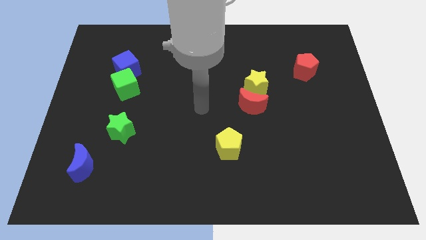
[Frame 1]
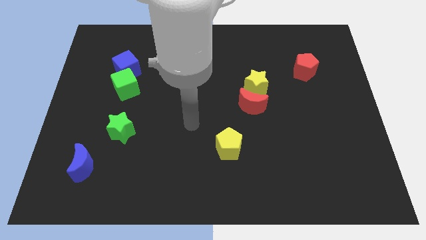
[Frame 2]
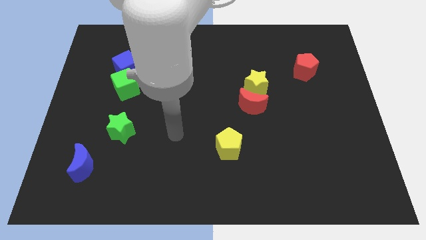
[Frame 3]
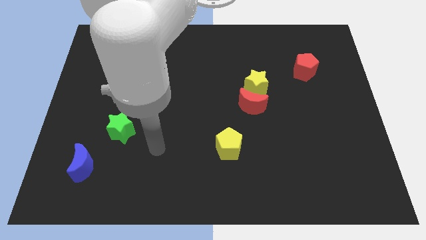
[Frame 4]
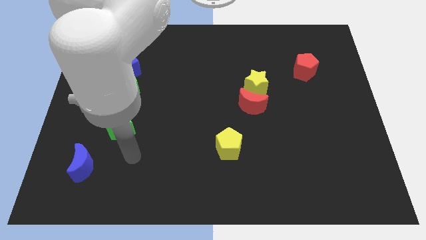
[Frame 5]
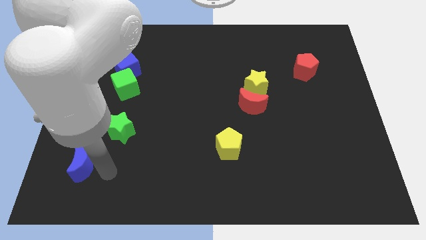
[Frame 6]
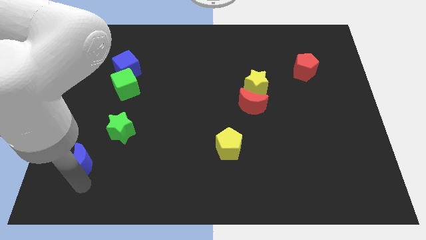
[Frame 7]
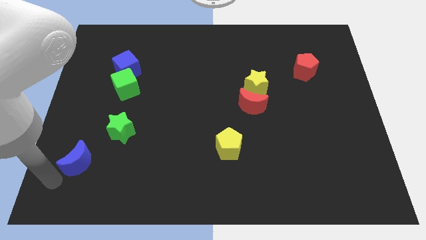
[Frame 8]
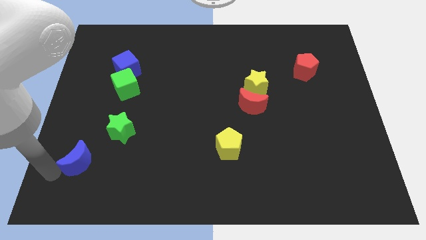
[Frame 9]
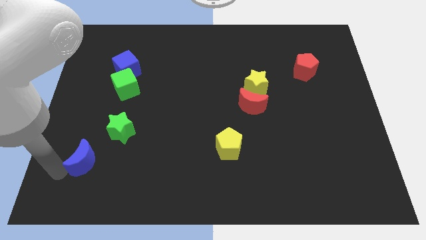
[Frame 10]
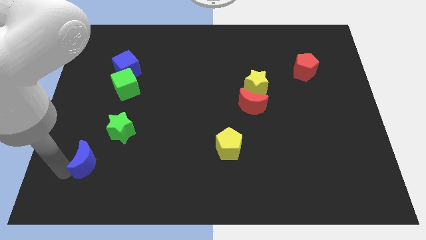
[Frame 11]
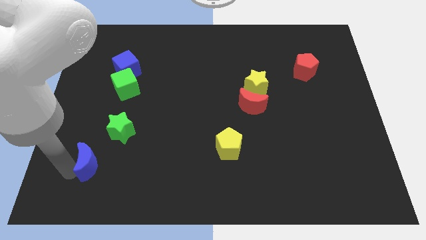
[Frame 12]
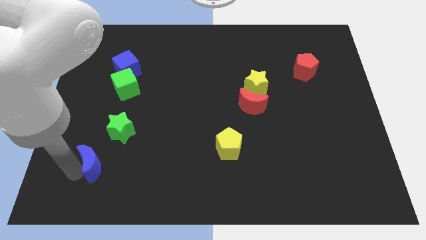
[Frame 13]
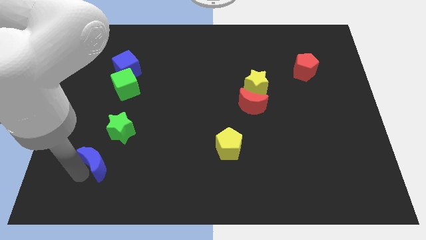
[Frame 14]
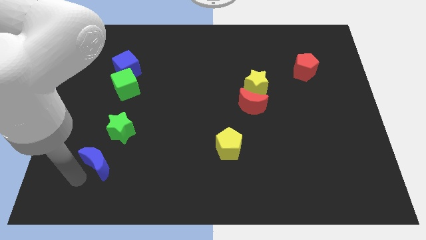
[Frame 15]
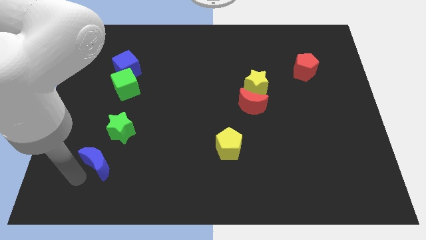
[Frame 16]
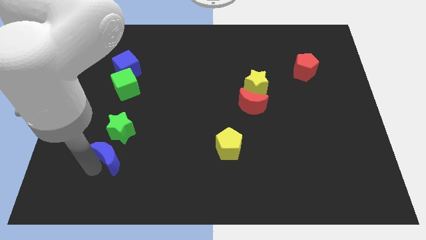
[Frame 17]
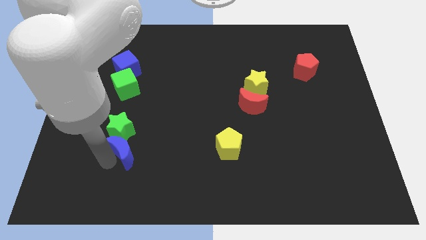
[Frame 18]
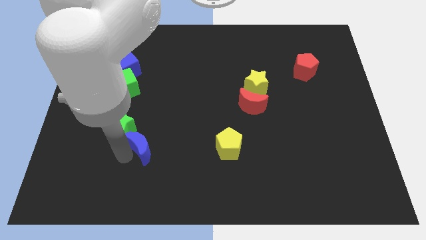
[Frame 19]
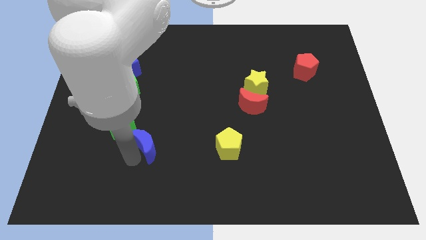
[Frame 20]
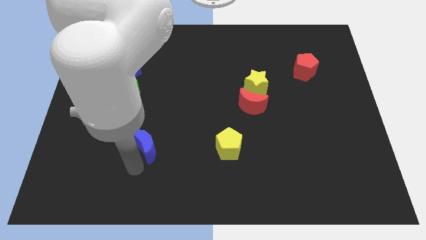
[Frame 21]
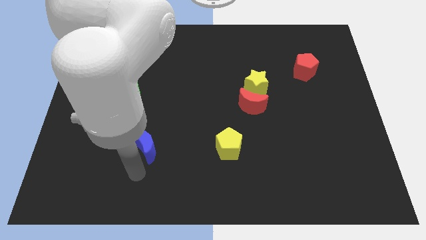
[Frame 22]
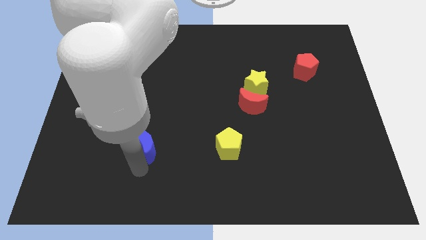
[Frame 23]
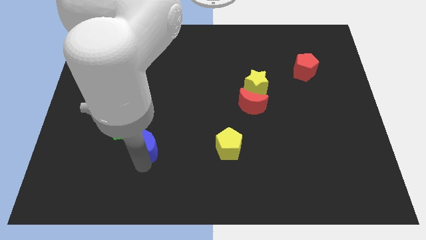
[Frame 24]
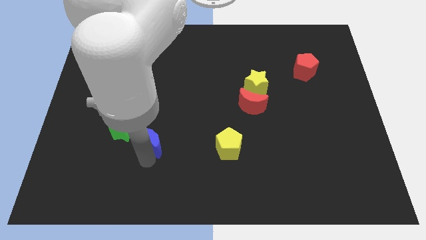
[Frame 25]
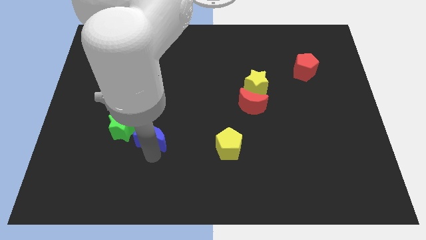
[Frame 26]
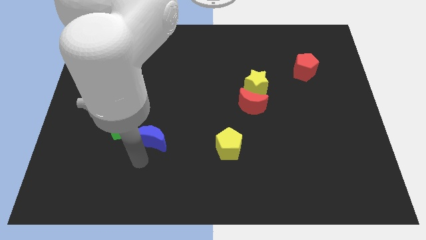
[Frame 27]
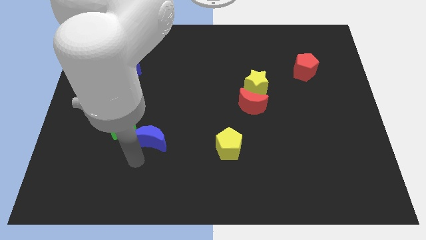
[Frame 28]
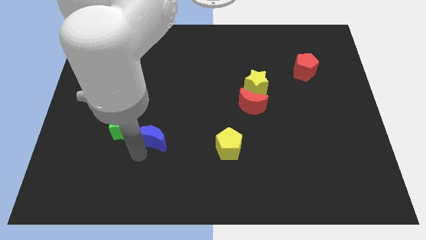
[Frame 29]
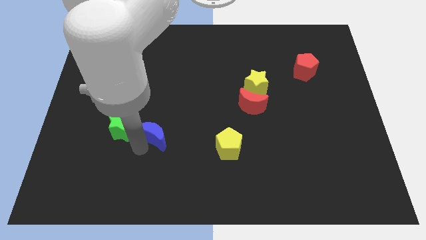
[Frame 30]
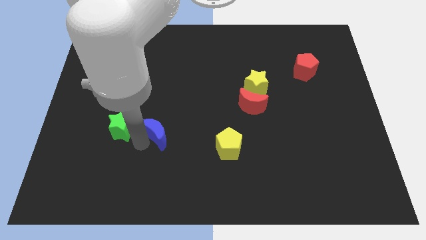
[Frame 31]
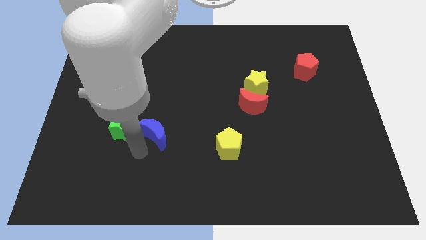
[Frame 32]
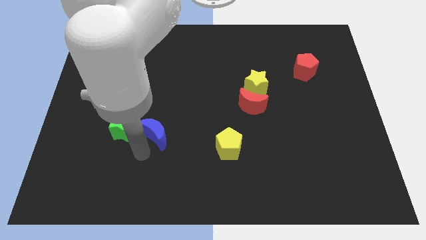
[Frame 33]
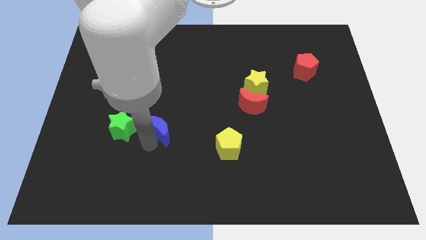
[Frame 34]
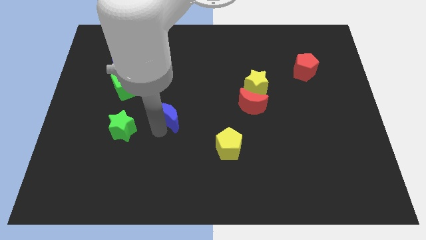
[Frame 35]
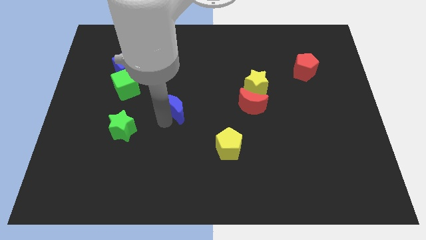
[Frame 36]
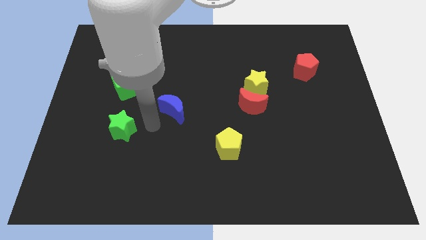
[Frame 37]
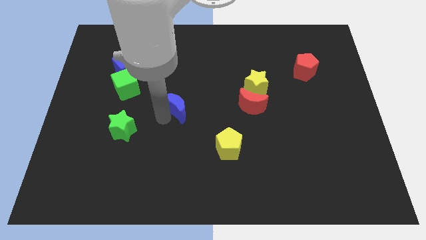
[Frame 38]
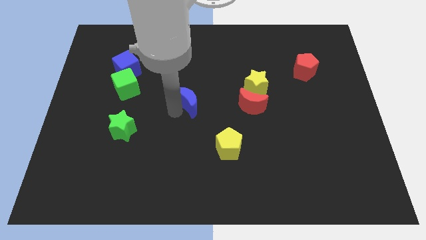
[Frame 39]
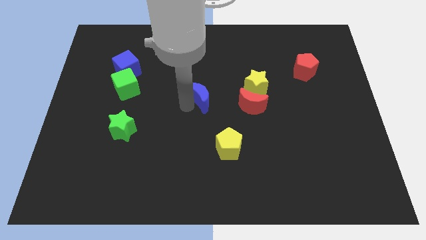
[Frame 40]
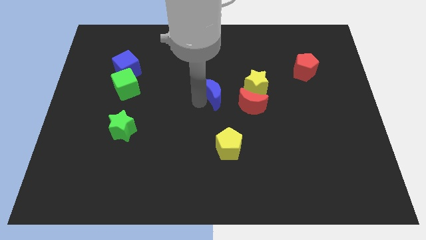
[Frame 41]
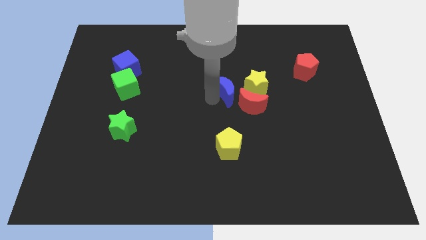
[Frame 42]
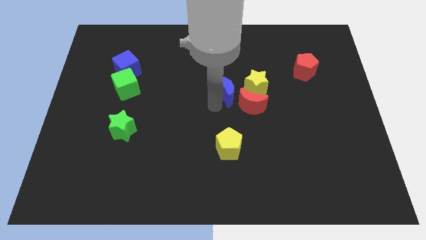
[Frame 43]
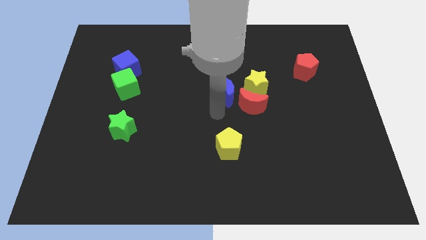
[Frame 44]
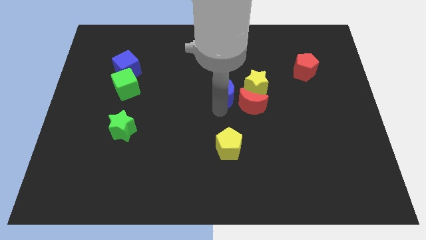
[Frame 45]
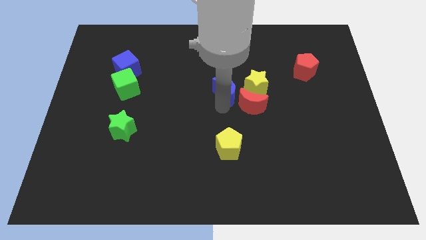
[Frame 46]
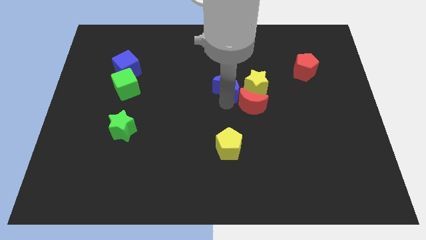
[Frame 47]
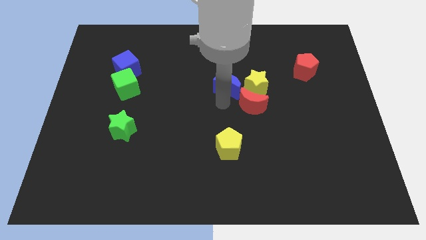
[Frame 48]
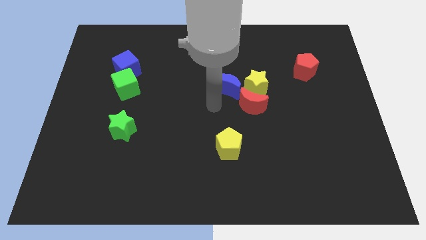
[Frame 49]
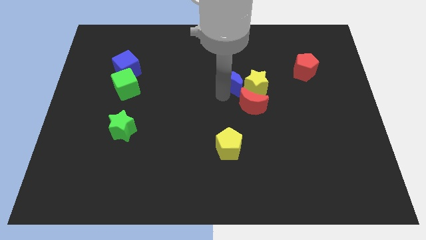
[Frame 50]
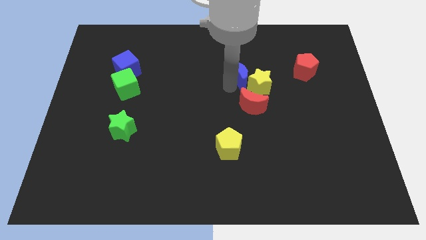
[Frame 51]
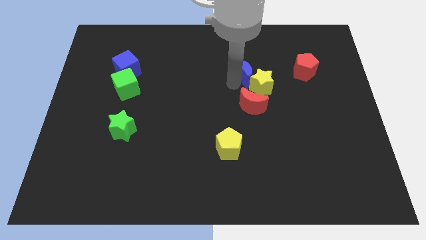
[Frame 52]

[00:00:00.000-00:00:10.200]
move the blue moon to the left side of the red pentagon

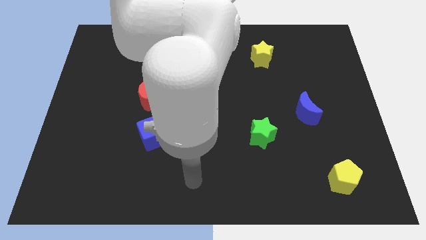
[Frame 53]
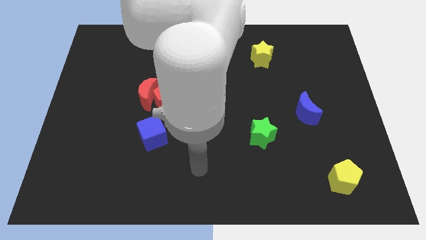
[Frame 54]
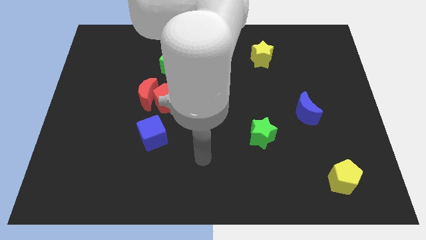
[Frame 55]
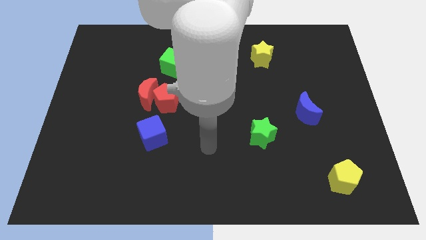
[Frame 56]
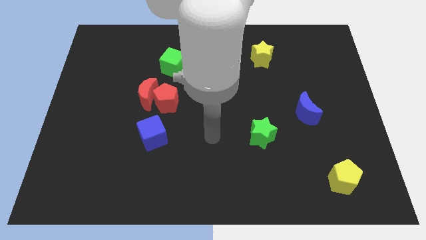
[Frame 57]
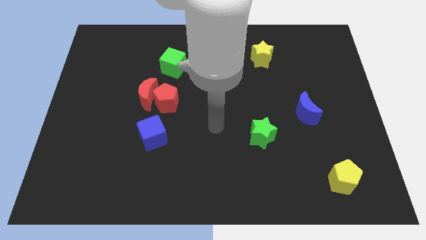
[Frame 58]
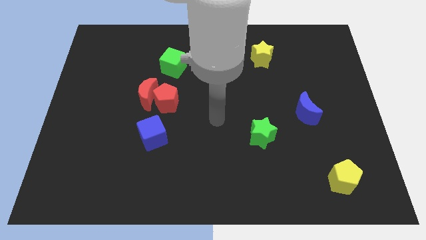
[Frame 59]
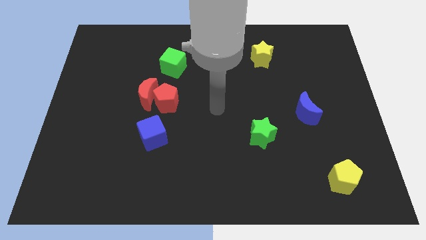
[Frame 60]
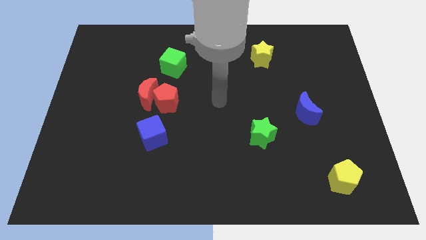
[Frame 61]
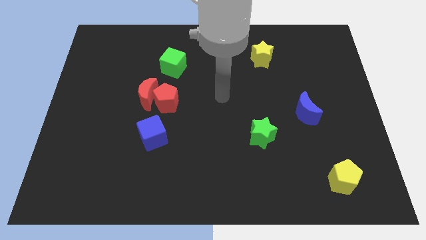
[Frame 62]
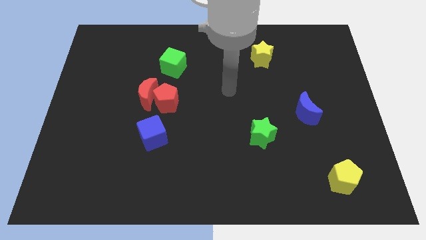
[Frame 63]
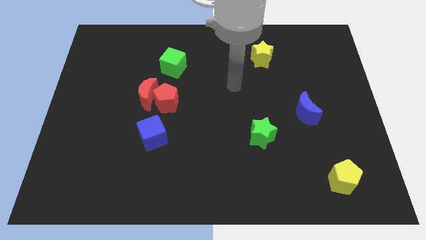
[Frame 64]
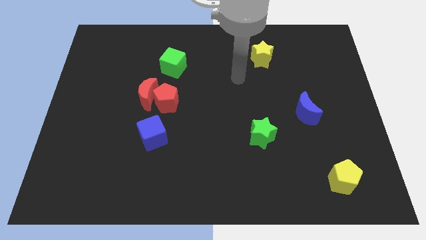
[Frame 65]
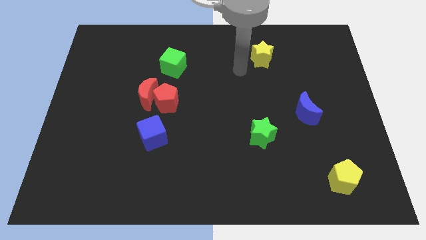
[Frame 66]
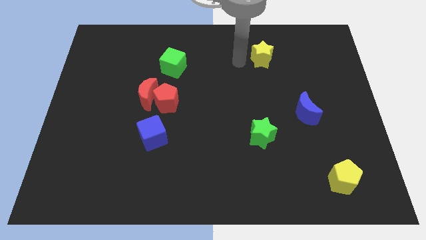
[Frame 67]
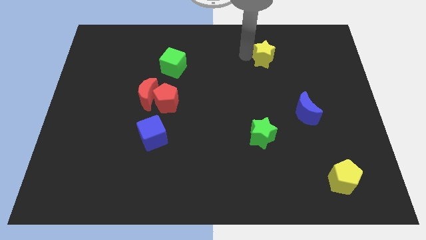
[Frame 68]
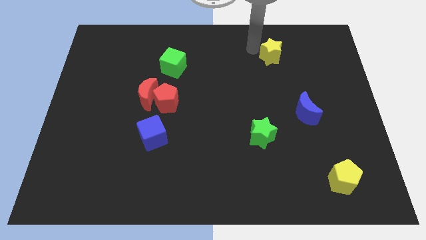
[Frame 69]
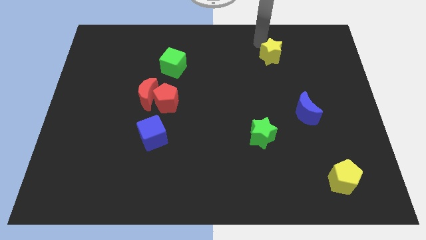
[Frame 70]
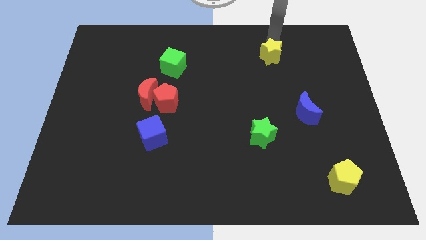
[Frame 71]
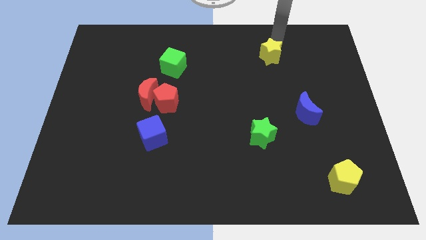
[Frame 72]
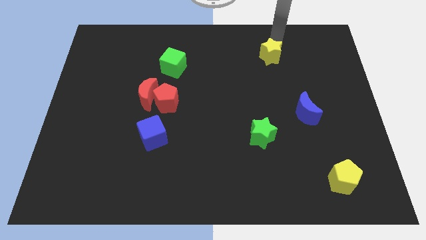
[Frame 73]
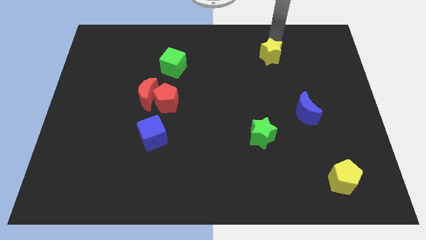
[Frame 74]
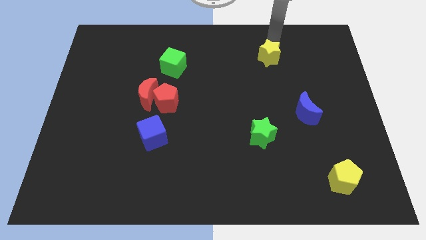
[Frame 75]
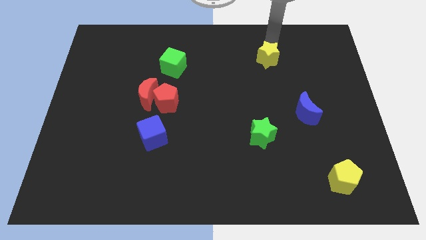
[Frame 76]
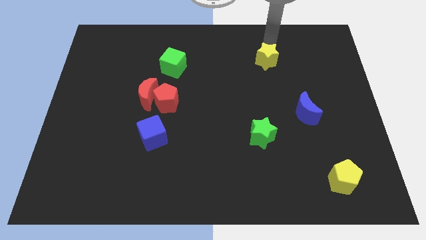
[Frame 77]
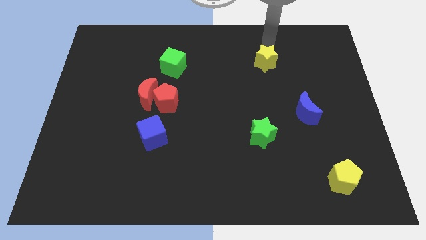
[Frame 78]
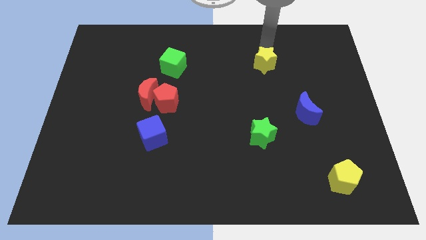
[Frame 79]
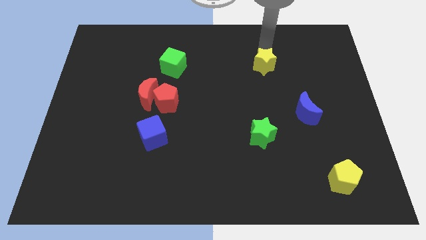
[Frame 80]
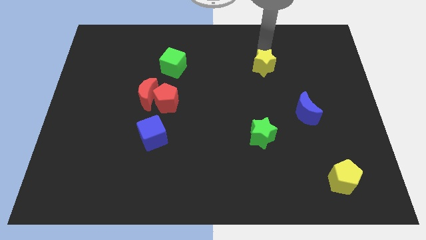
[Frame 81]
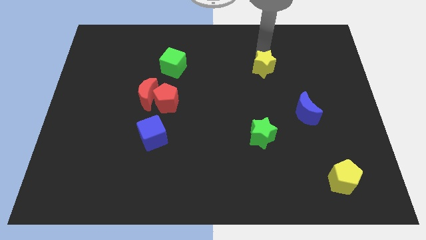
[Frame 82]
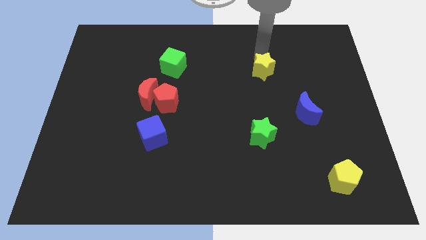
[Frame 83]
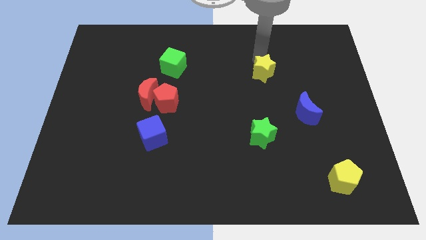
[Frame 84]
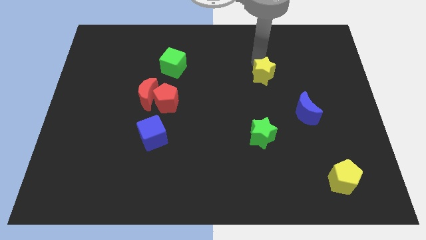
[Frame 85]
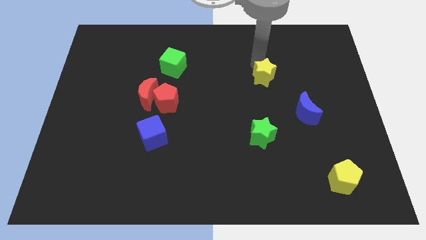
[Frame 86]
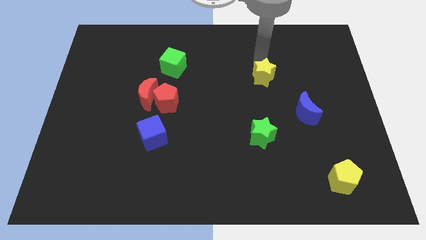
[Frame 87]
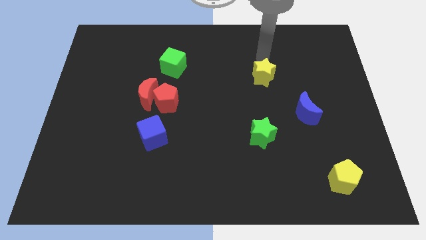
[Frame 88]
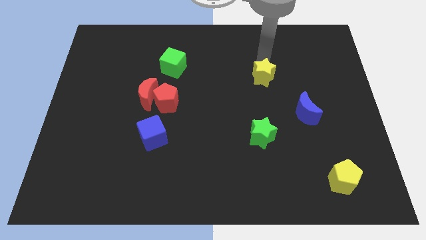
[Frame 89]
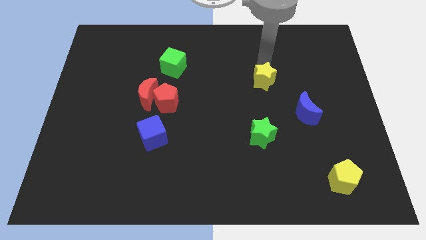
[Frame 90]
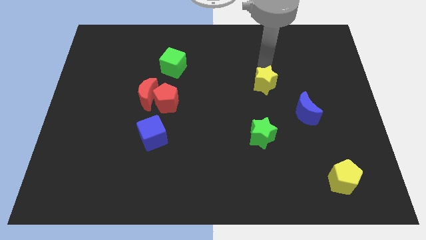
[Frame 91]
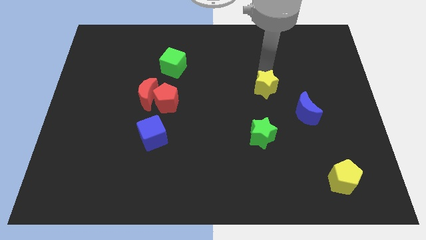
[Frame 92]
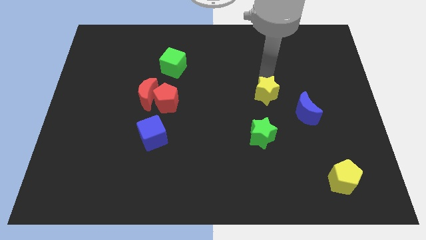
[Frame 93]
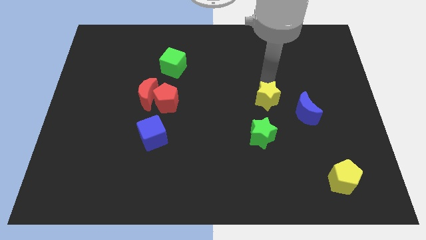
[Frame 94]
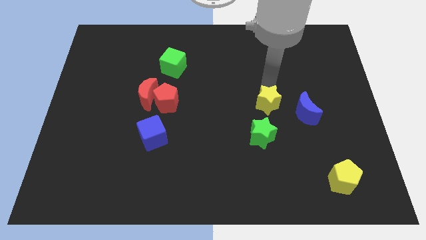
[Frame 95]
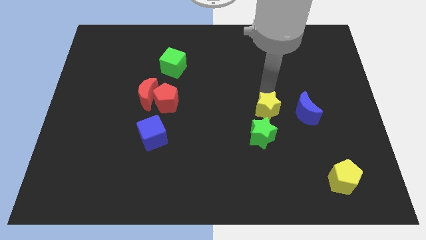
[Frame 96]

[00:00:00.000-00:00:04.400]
move the yellow star to the top right of the green star
